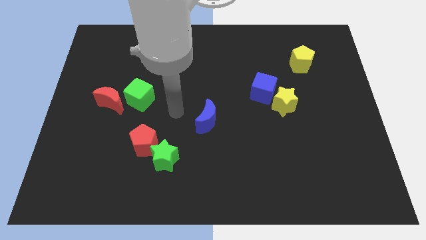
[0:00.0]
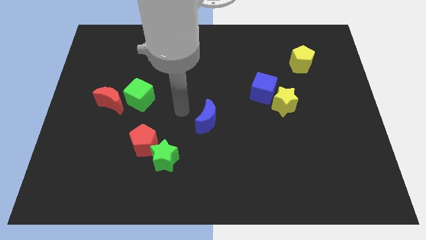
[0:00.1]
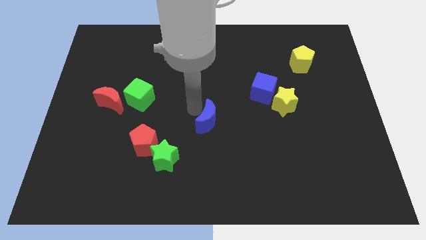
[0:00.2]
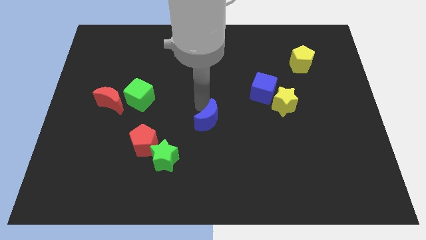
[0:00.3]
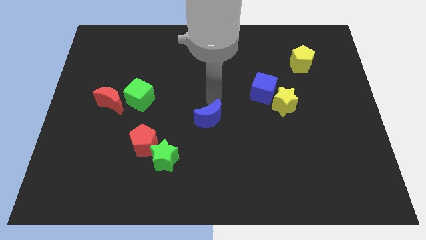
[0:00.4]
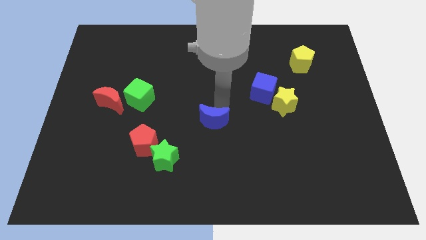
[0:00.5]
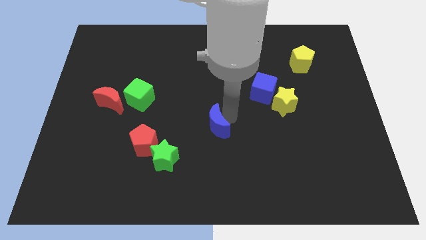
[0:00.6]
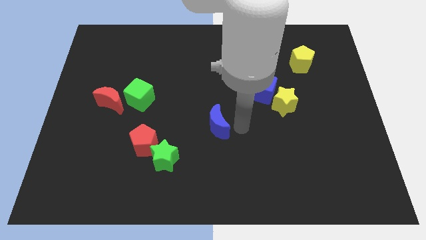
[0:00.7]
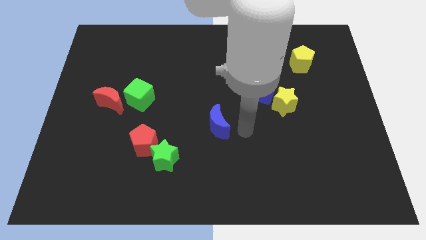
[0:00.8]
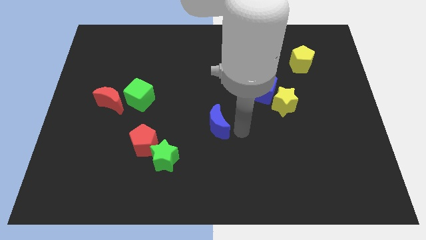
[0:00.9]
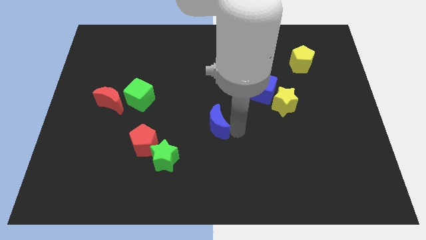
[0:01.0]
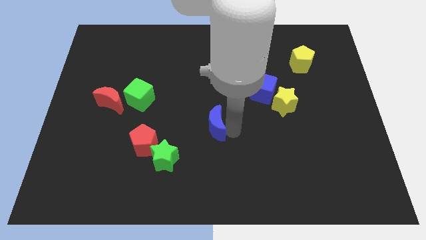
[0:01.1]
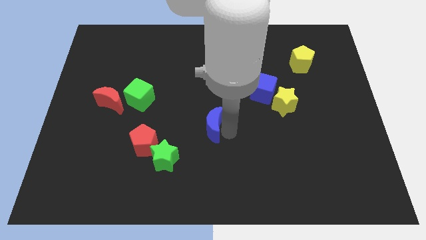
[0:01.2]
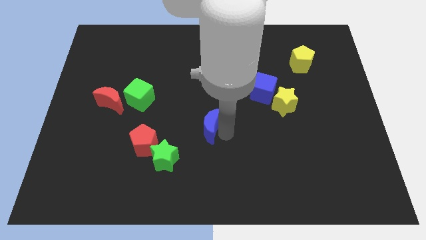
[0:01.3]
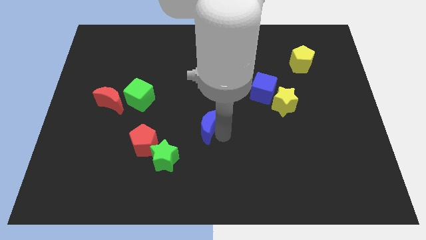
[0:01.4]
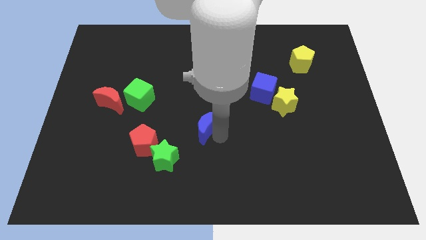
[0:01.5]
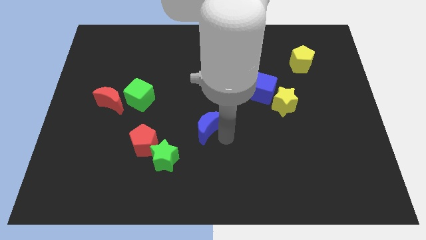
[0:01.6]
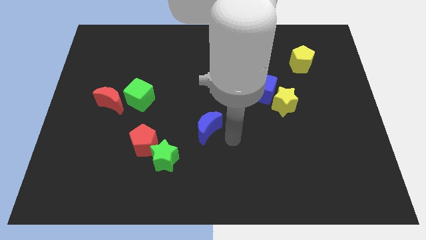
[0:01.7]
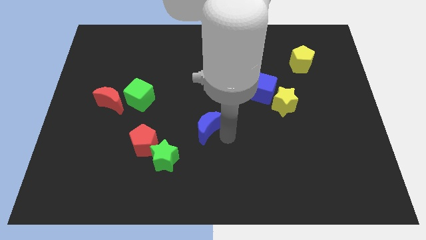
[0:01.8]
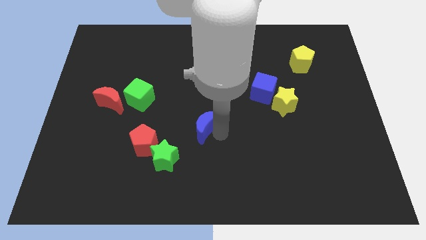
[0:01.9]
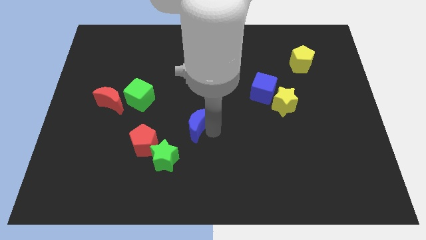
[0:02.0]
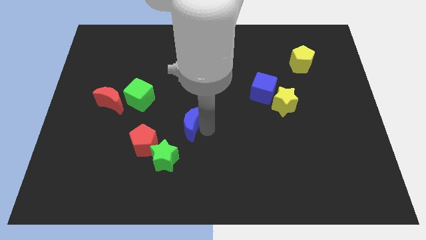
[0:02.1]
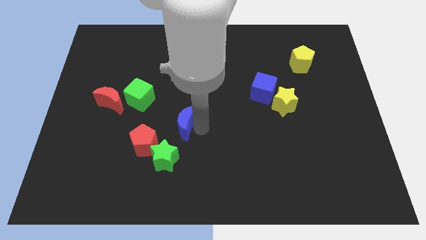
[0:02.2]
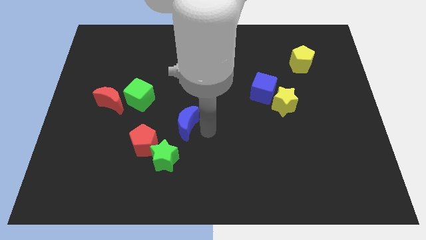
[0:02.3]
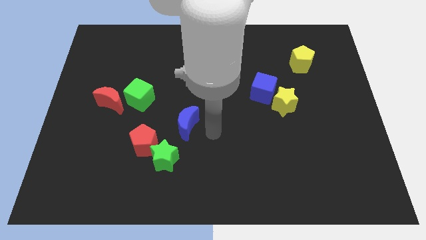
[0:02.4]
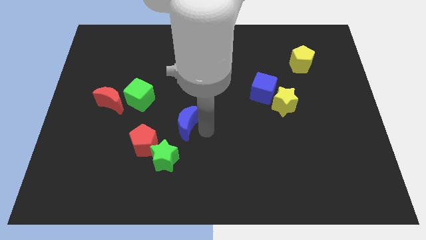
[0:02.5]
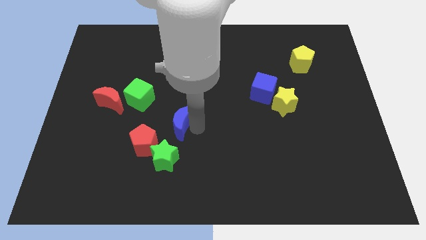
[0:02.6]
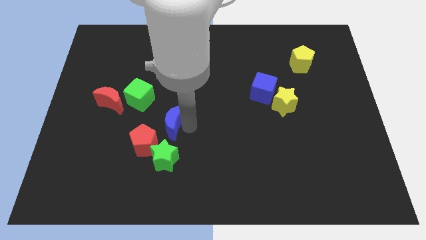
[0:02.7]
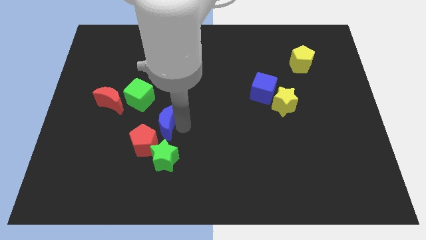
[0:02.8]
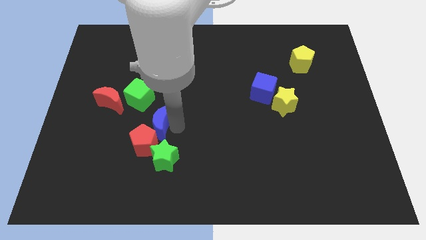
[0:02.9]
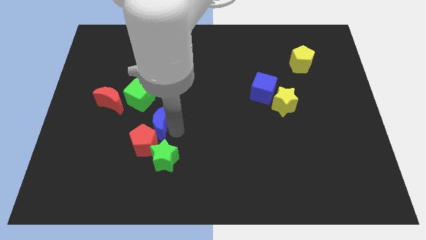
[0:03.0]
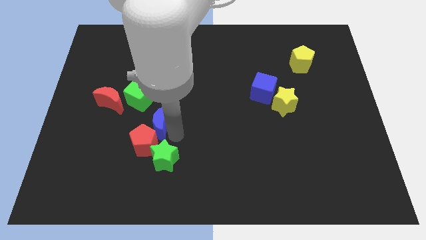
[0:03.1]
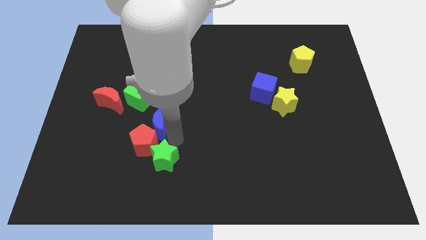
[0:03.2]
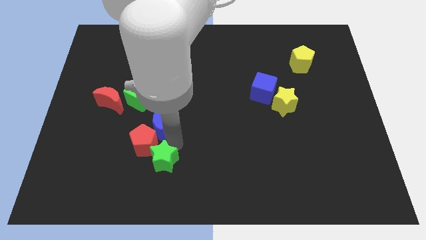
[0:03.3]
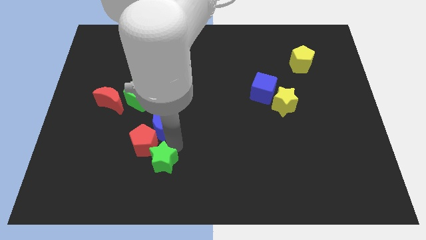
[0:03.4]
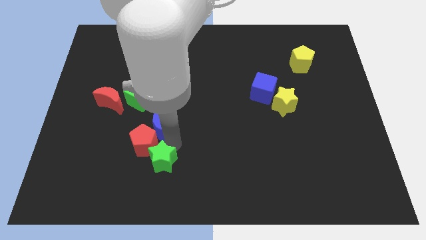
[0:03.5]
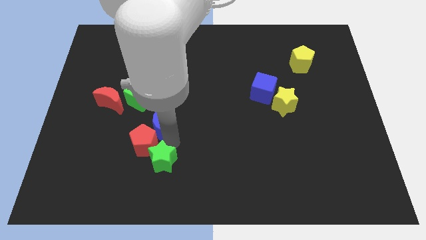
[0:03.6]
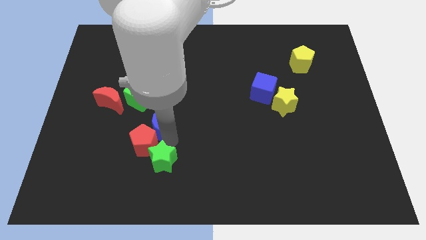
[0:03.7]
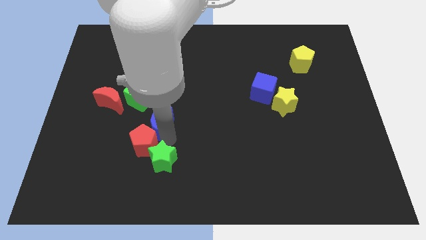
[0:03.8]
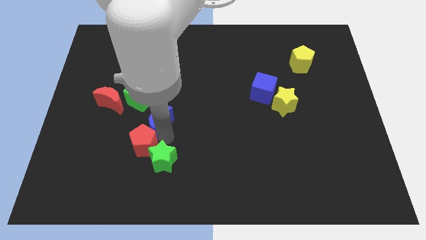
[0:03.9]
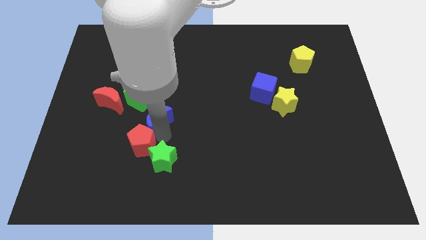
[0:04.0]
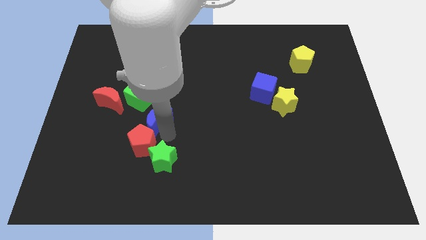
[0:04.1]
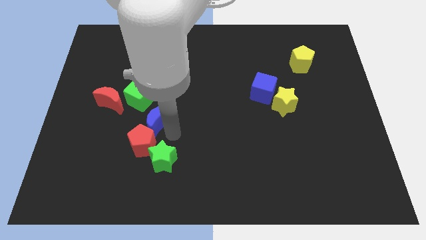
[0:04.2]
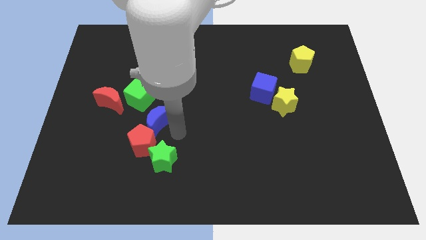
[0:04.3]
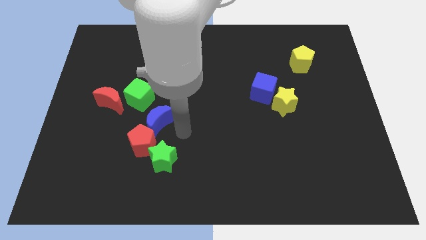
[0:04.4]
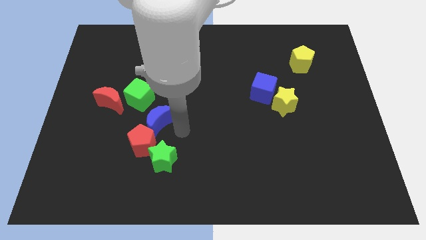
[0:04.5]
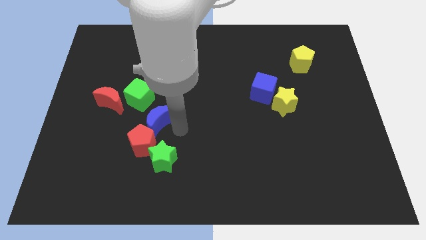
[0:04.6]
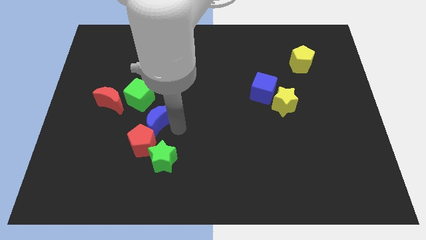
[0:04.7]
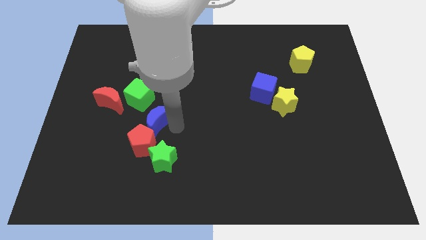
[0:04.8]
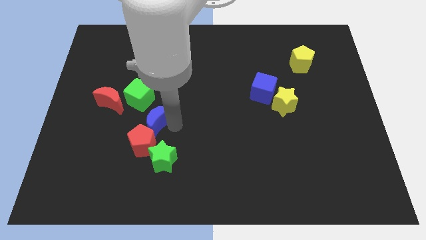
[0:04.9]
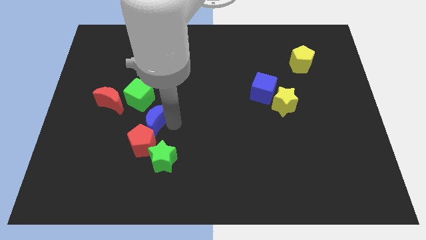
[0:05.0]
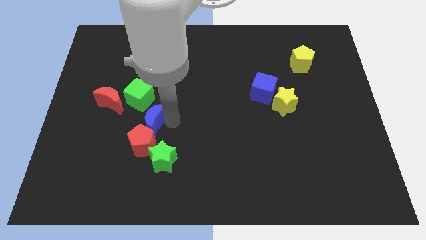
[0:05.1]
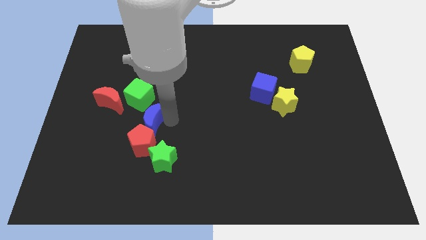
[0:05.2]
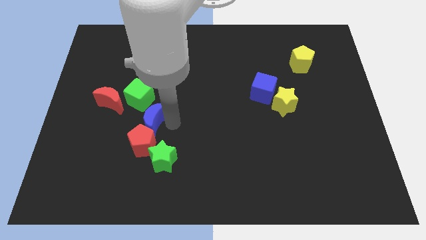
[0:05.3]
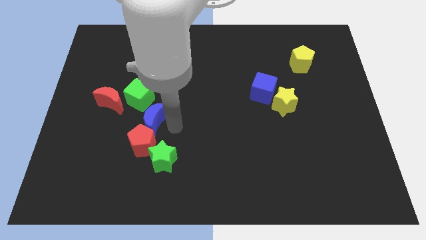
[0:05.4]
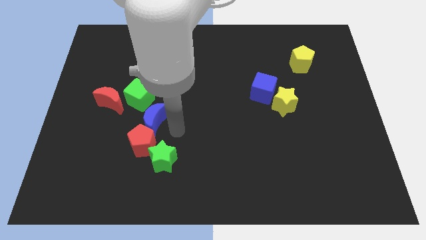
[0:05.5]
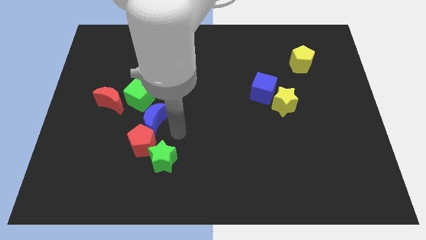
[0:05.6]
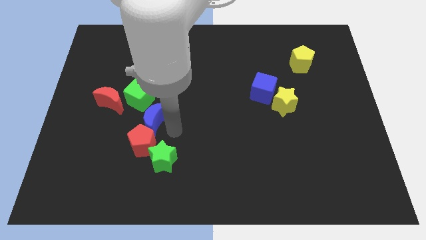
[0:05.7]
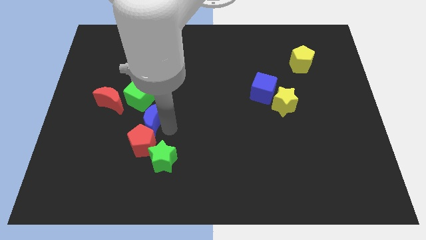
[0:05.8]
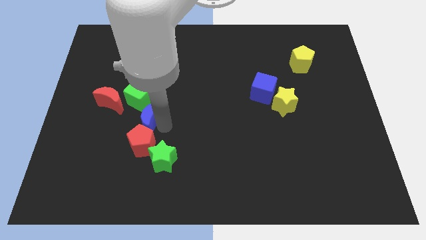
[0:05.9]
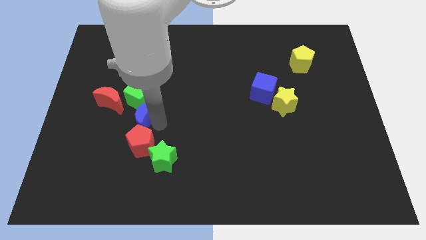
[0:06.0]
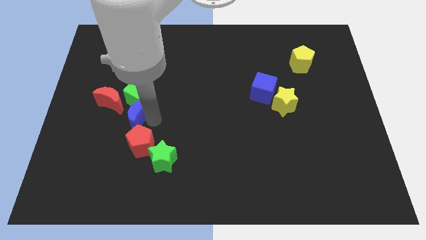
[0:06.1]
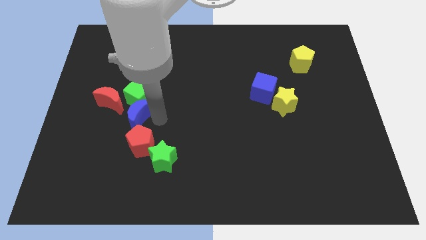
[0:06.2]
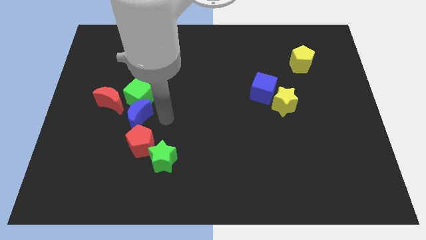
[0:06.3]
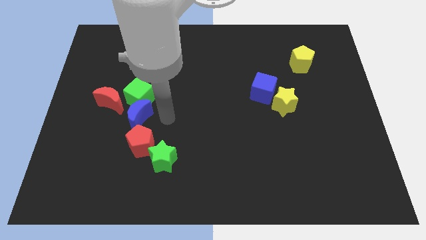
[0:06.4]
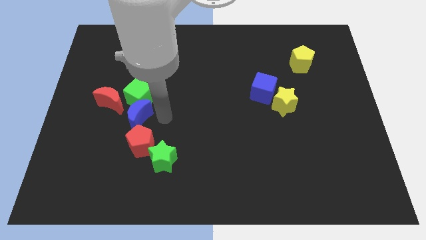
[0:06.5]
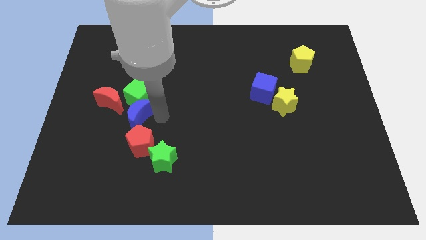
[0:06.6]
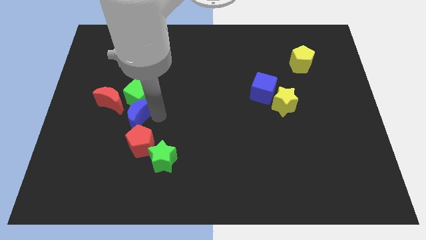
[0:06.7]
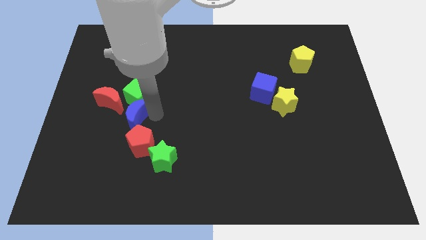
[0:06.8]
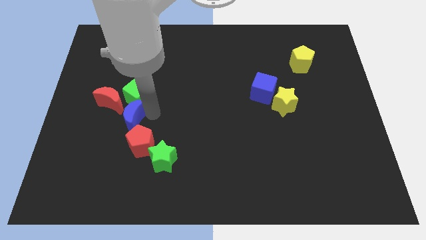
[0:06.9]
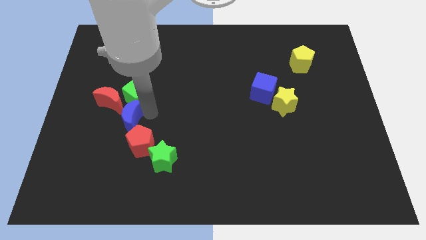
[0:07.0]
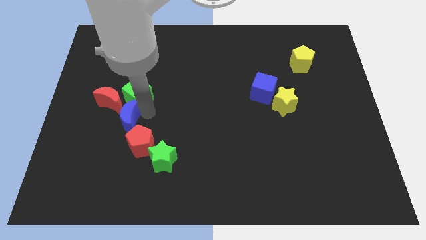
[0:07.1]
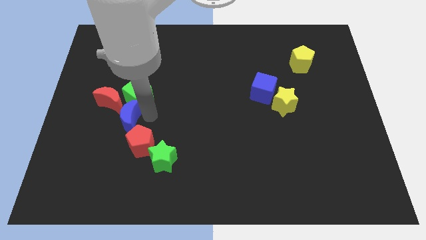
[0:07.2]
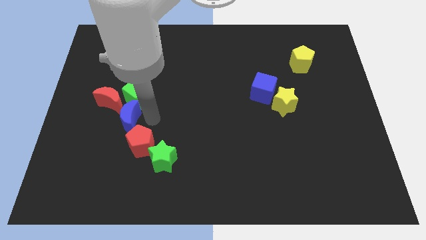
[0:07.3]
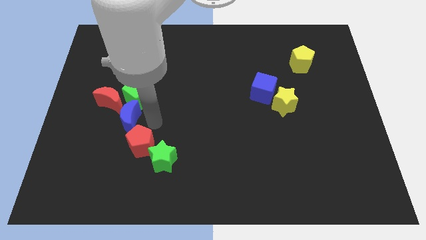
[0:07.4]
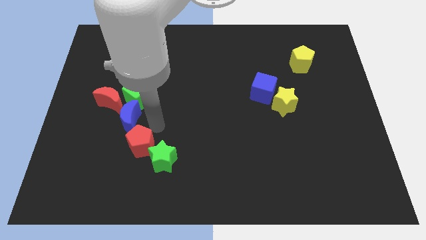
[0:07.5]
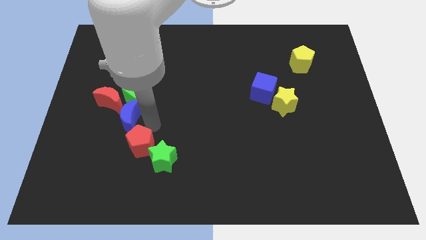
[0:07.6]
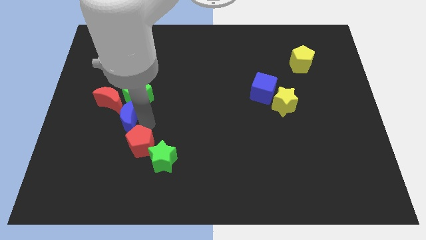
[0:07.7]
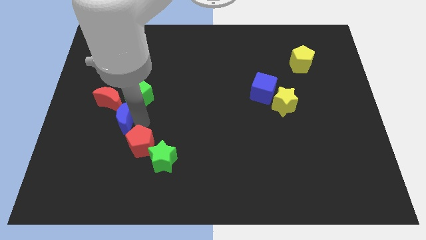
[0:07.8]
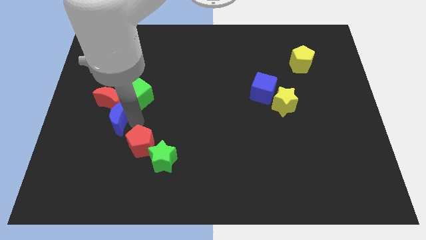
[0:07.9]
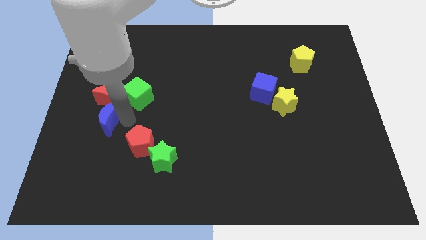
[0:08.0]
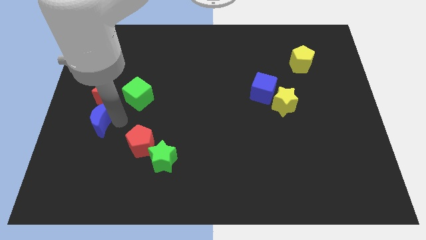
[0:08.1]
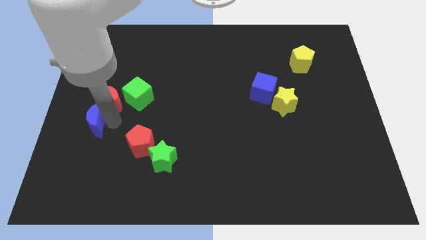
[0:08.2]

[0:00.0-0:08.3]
slide the blue moon to the center left
